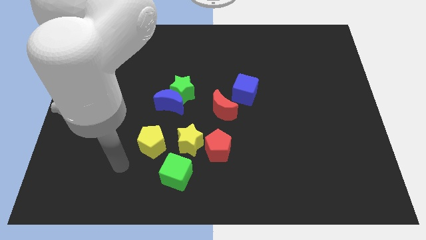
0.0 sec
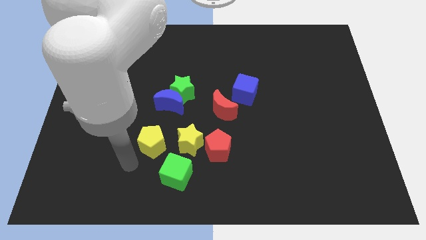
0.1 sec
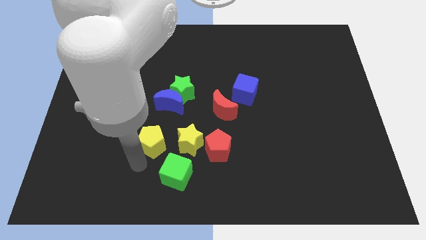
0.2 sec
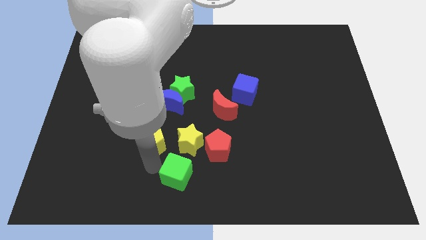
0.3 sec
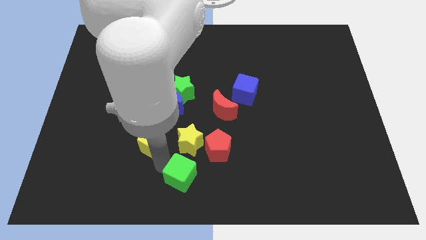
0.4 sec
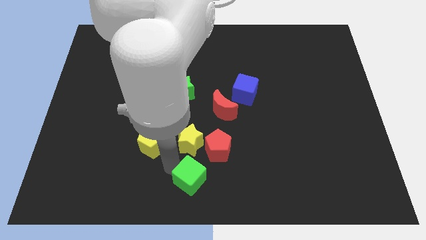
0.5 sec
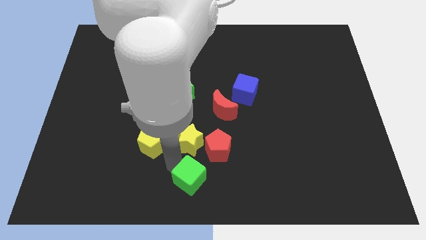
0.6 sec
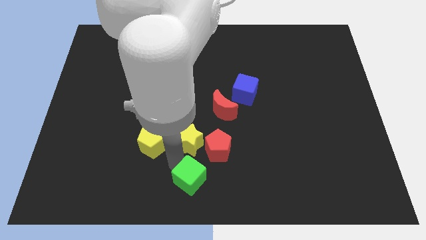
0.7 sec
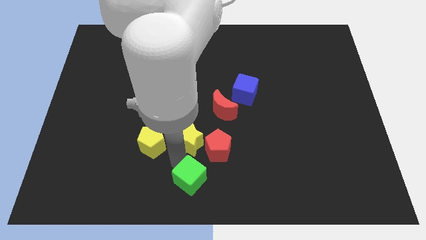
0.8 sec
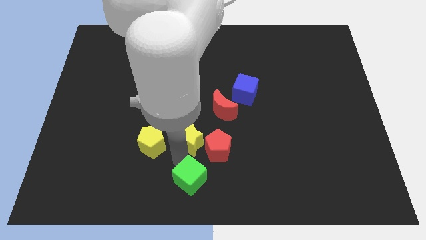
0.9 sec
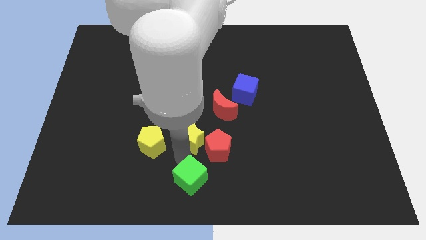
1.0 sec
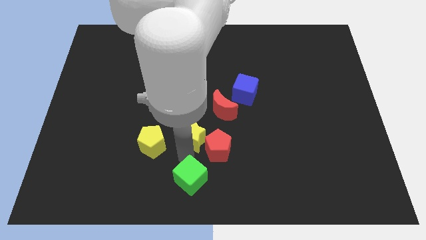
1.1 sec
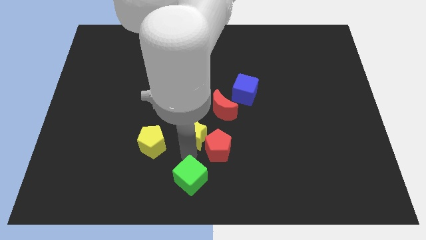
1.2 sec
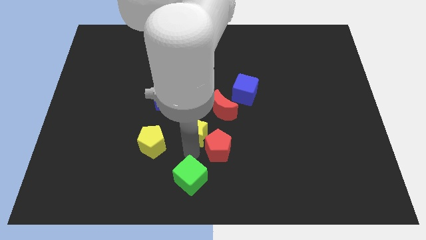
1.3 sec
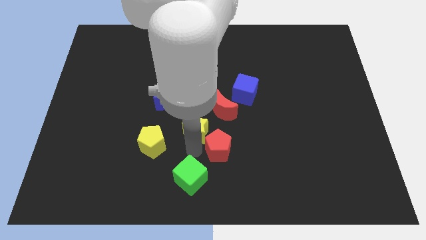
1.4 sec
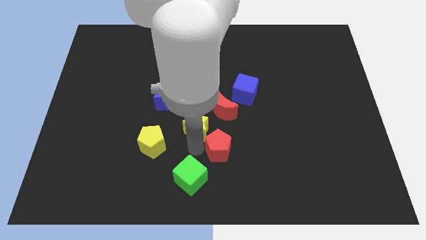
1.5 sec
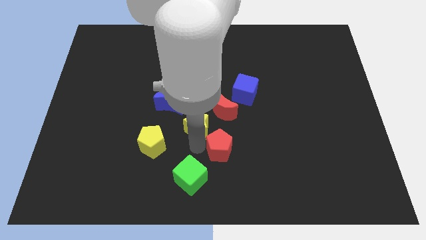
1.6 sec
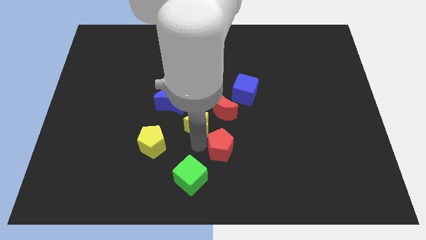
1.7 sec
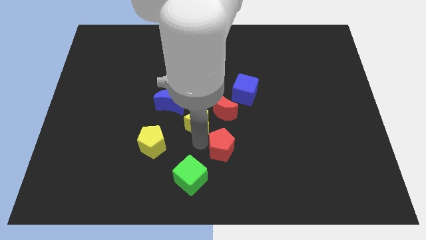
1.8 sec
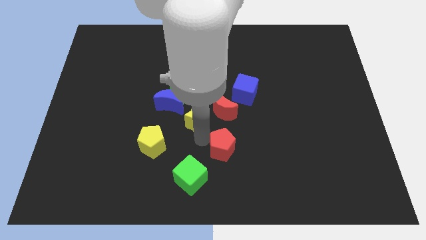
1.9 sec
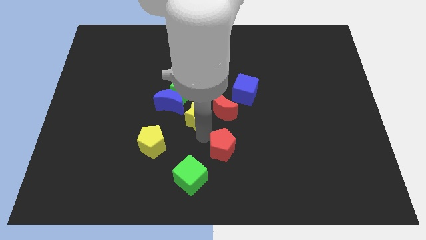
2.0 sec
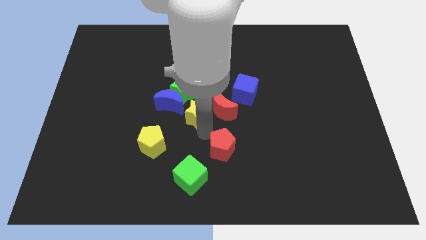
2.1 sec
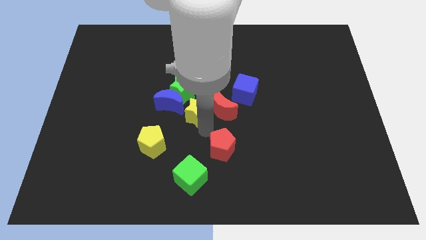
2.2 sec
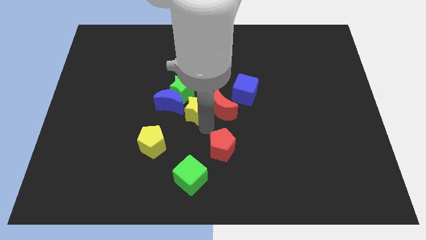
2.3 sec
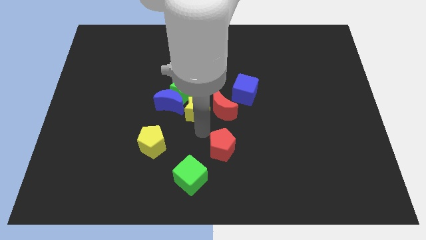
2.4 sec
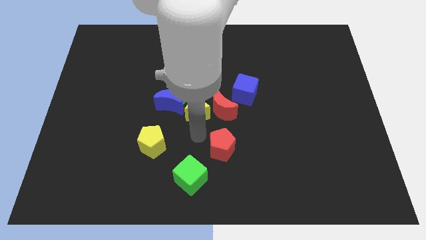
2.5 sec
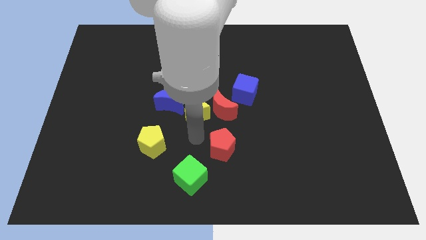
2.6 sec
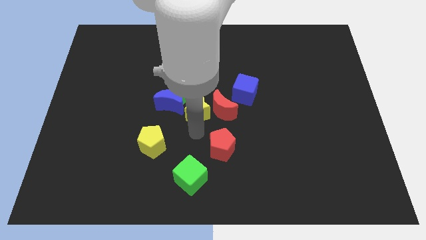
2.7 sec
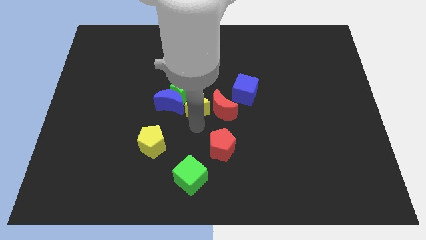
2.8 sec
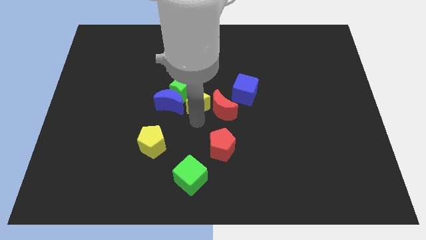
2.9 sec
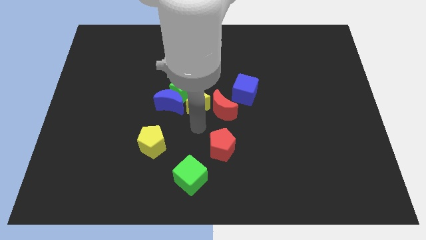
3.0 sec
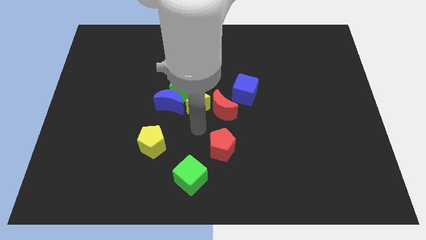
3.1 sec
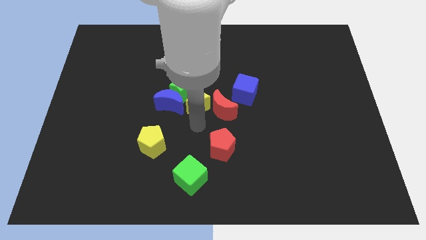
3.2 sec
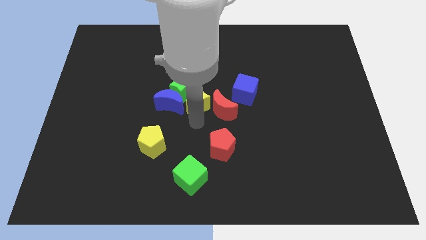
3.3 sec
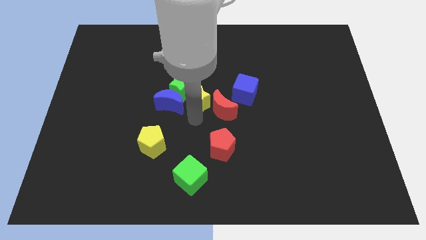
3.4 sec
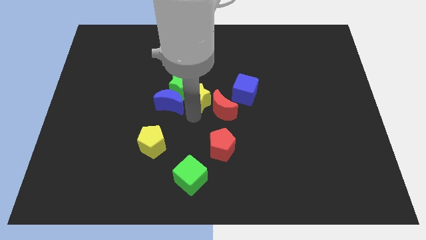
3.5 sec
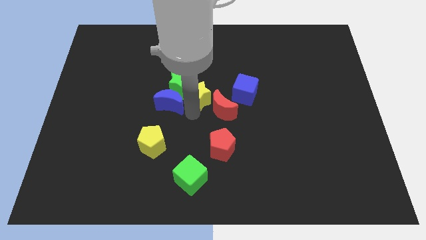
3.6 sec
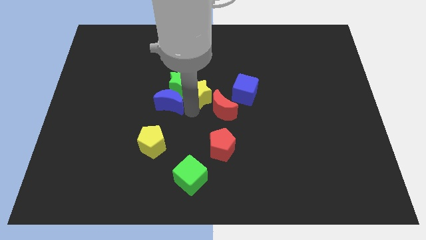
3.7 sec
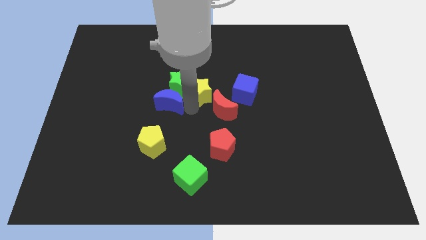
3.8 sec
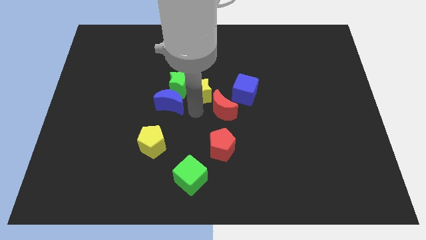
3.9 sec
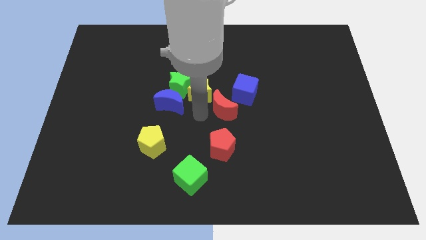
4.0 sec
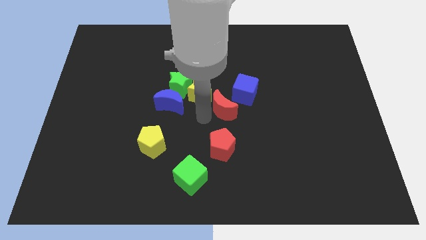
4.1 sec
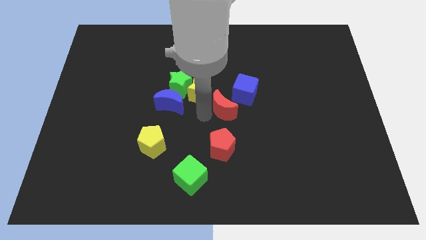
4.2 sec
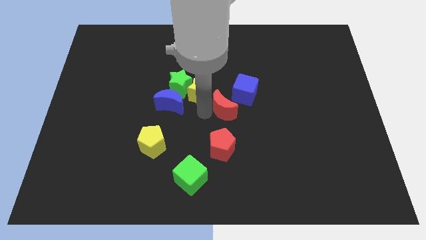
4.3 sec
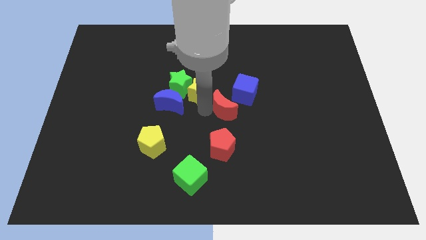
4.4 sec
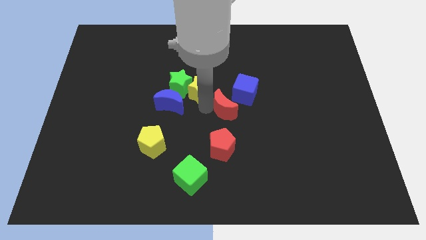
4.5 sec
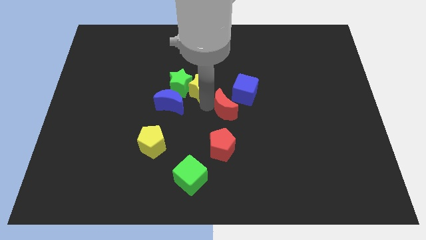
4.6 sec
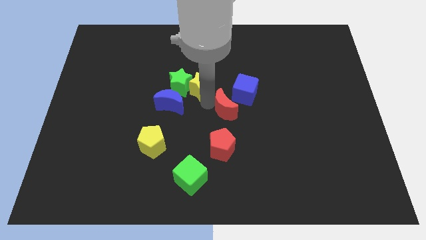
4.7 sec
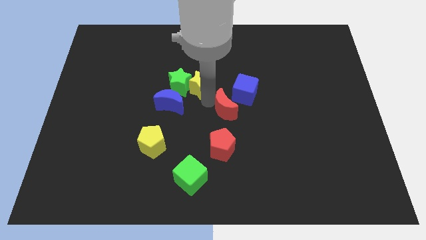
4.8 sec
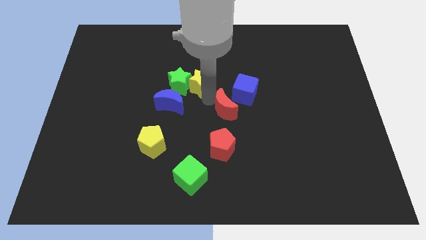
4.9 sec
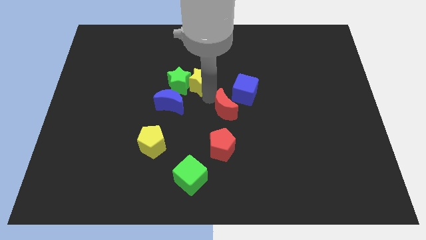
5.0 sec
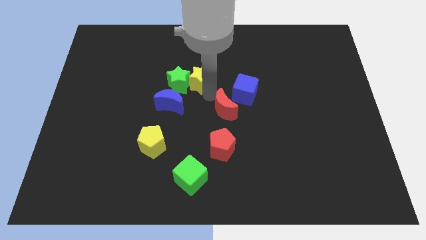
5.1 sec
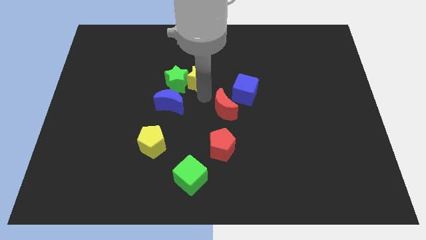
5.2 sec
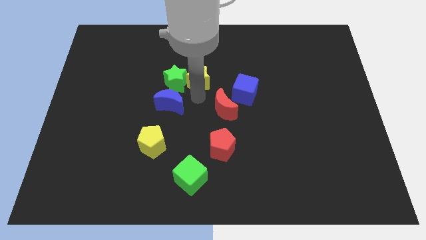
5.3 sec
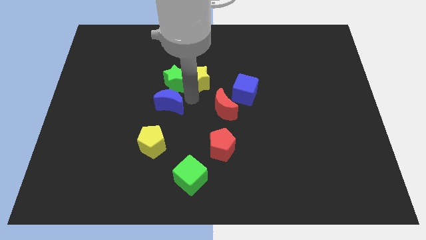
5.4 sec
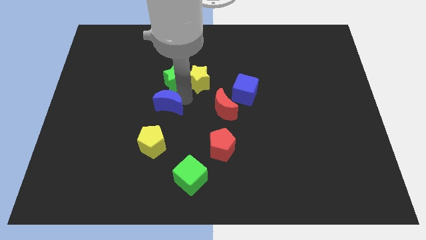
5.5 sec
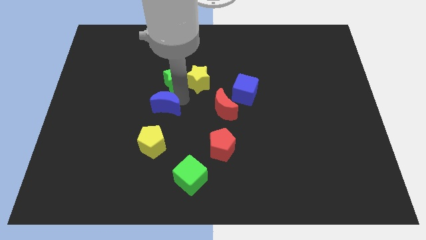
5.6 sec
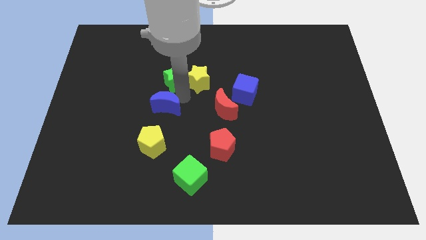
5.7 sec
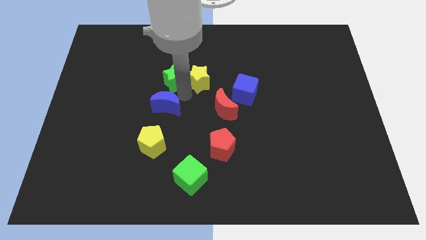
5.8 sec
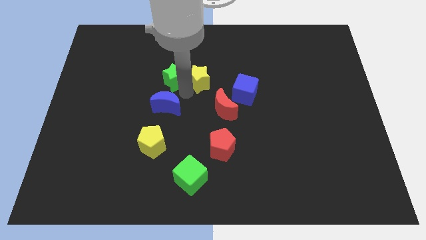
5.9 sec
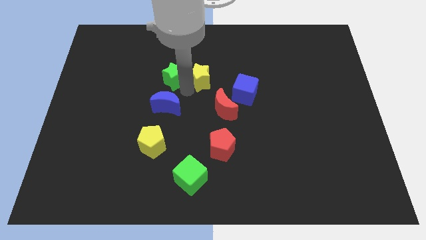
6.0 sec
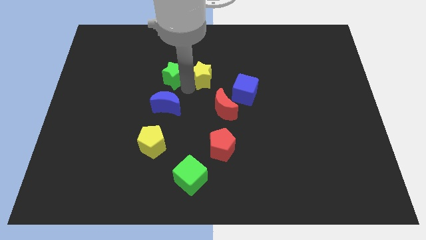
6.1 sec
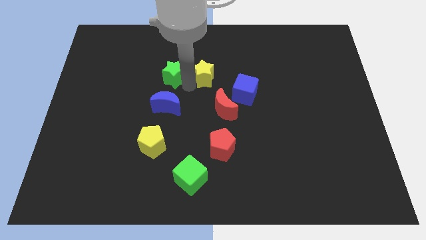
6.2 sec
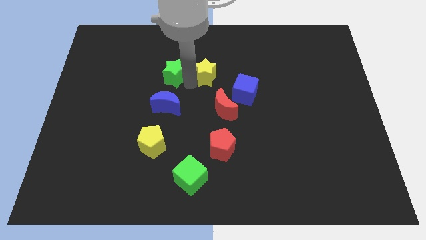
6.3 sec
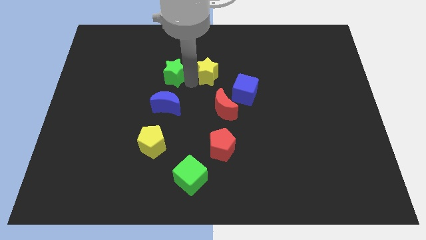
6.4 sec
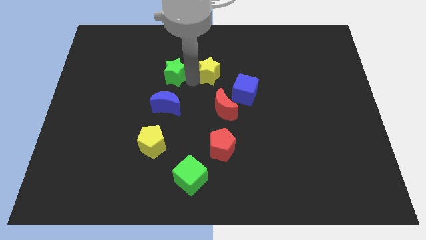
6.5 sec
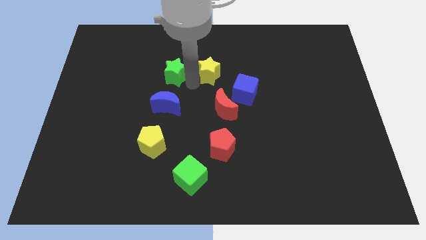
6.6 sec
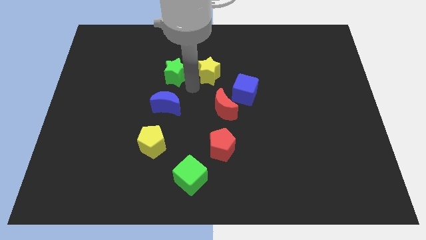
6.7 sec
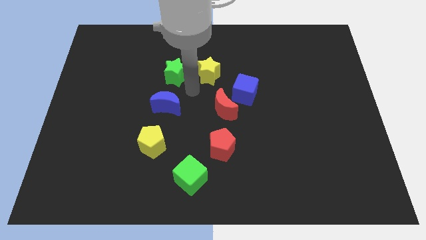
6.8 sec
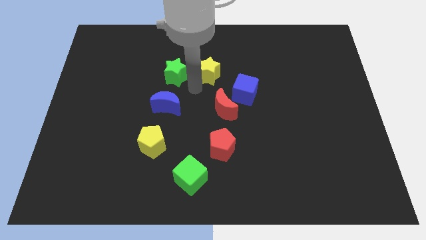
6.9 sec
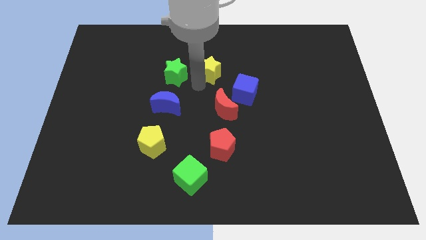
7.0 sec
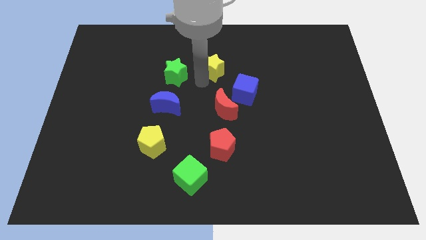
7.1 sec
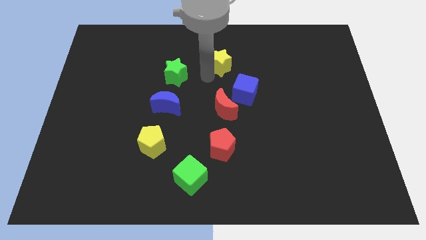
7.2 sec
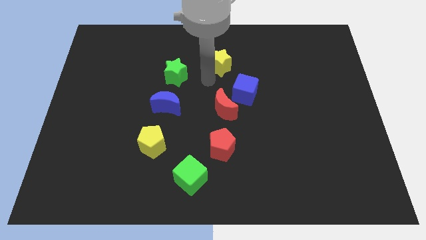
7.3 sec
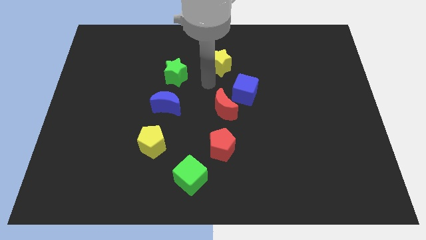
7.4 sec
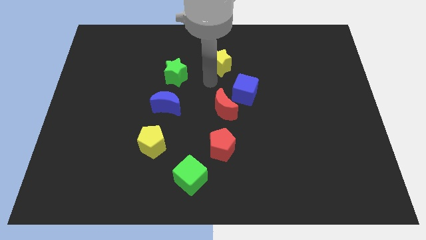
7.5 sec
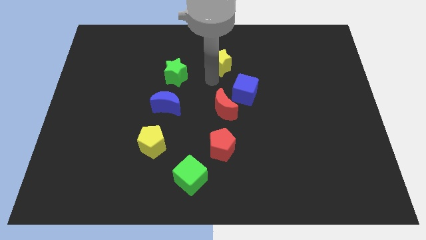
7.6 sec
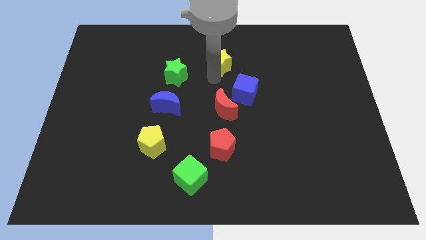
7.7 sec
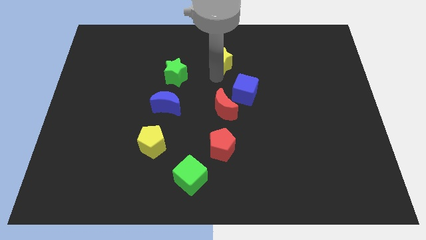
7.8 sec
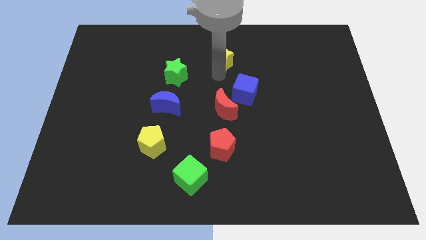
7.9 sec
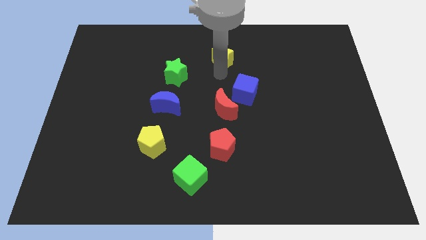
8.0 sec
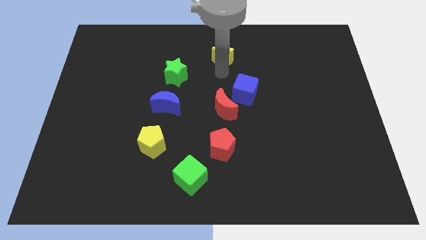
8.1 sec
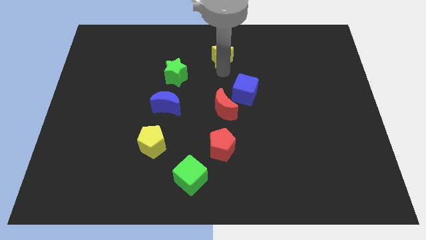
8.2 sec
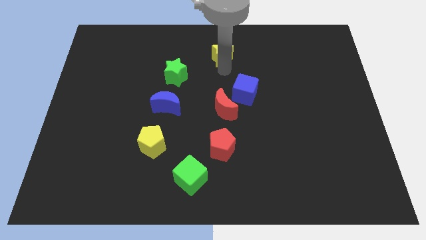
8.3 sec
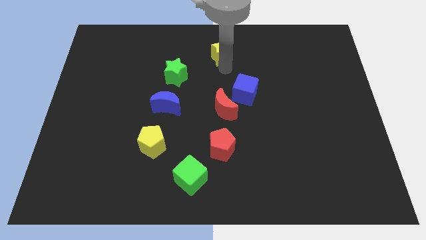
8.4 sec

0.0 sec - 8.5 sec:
push the yellow star to the towards your base
